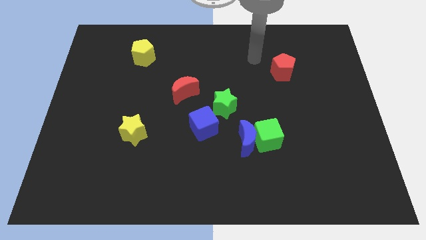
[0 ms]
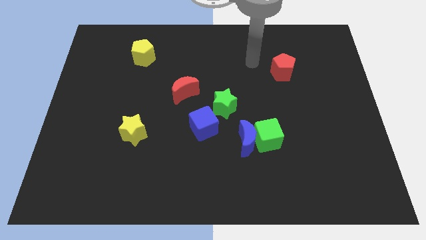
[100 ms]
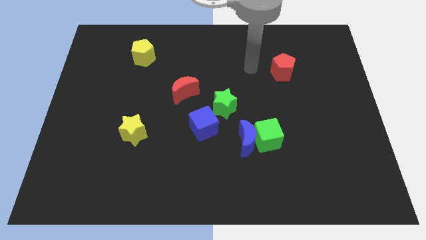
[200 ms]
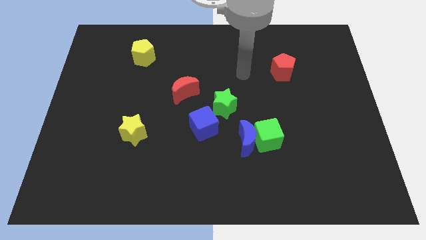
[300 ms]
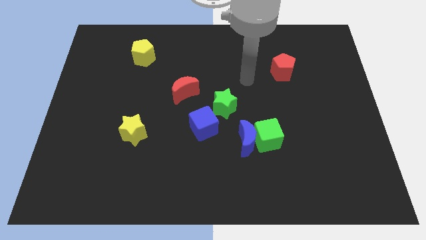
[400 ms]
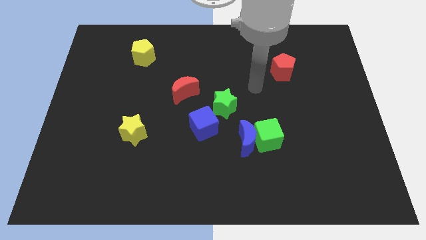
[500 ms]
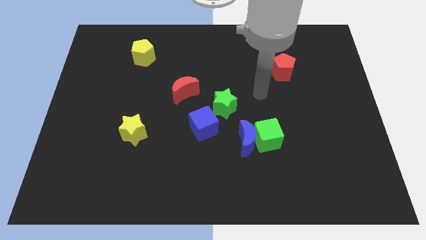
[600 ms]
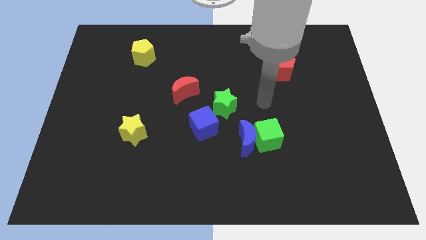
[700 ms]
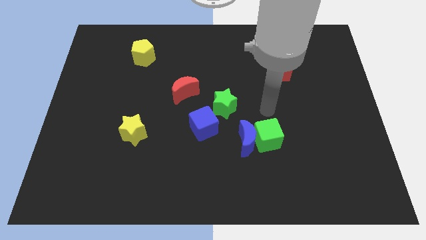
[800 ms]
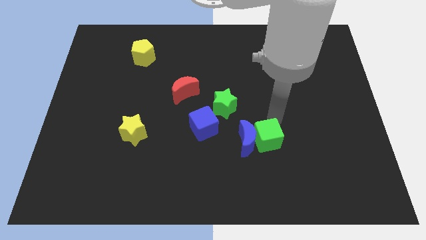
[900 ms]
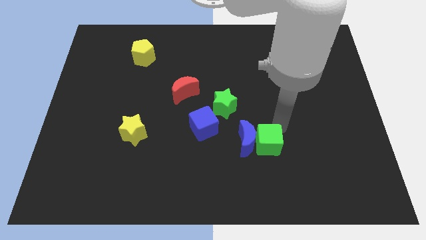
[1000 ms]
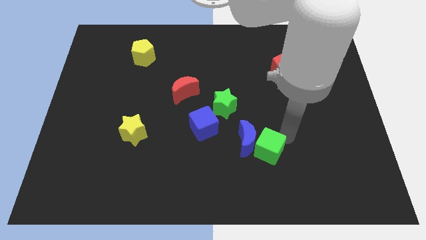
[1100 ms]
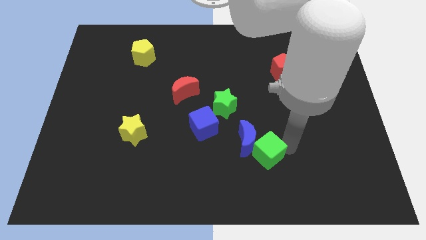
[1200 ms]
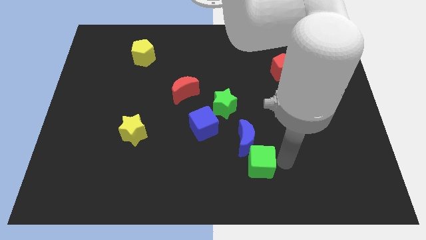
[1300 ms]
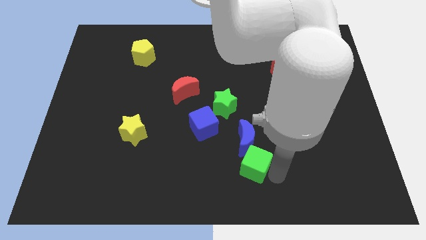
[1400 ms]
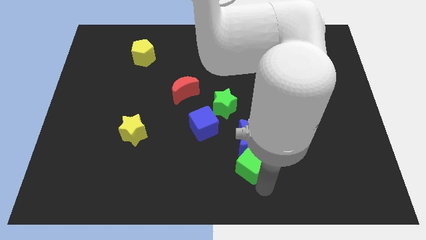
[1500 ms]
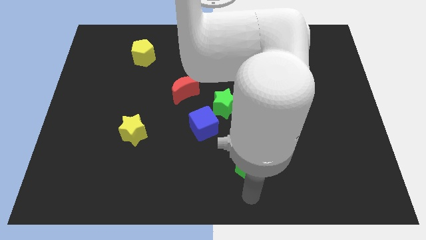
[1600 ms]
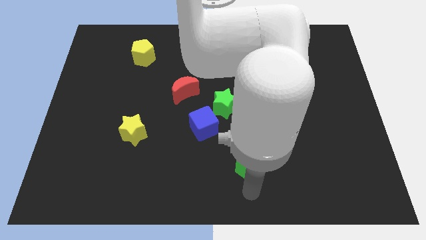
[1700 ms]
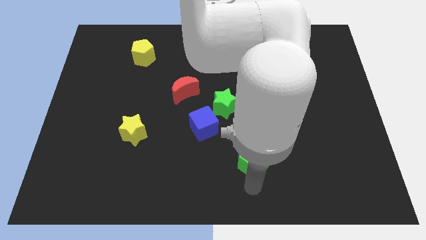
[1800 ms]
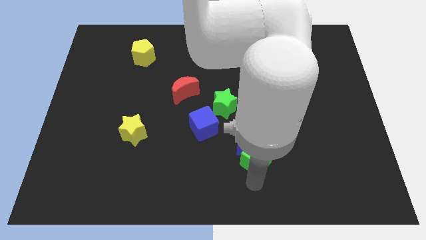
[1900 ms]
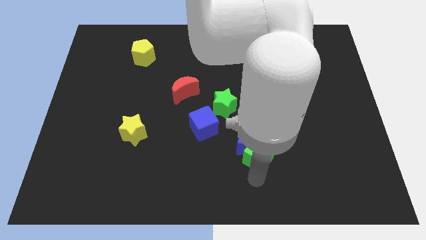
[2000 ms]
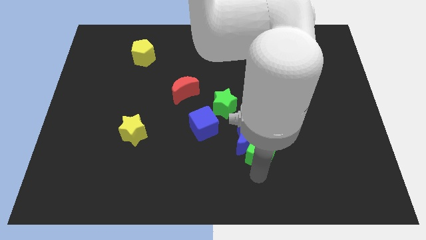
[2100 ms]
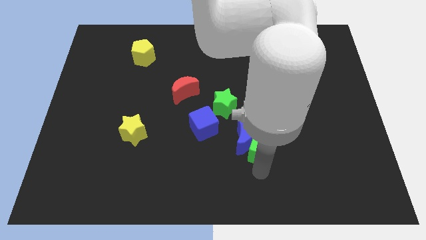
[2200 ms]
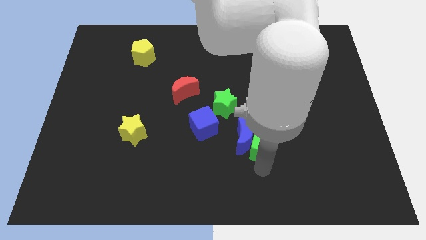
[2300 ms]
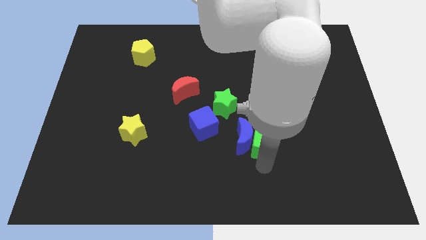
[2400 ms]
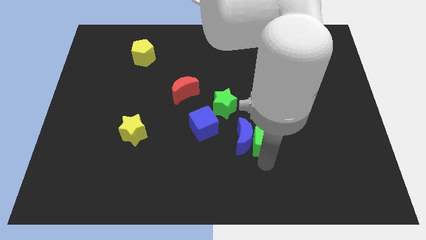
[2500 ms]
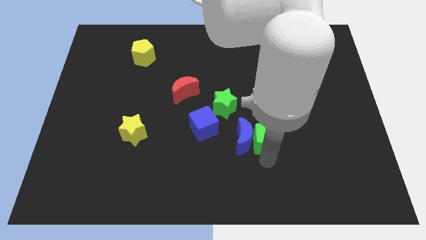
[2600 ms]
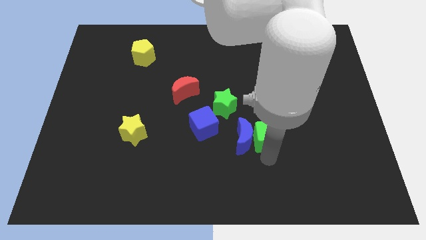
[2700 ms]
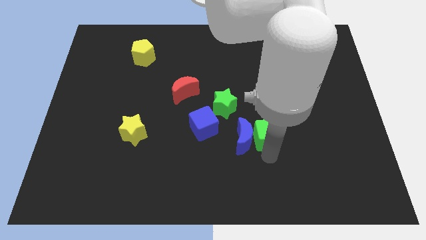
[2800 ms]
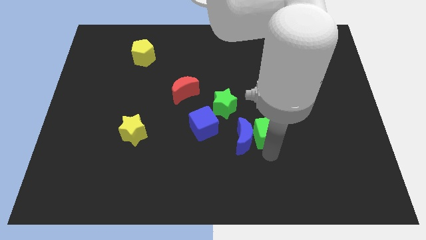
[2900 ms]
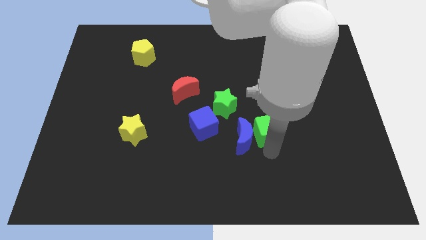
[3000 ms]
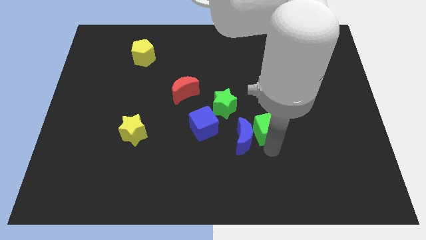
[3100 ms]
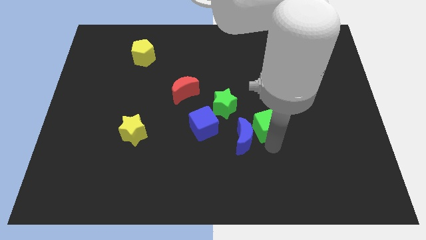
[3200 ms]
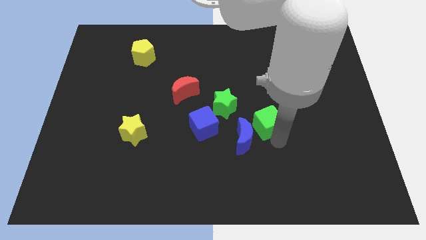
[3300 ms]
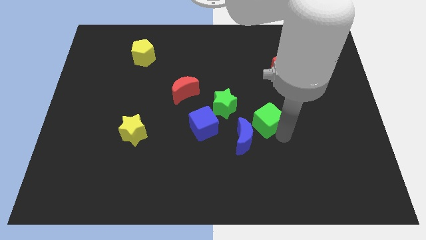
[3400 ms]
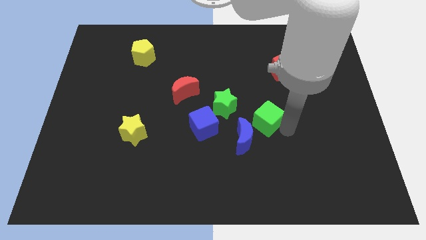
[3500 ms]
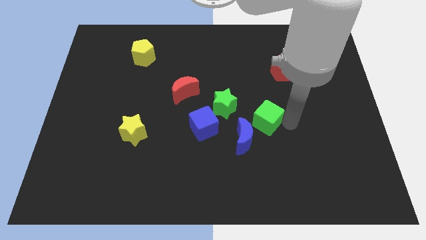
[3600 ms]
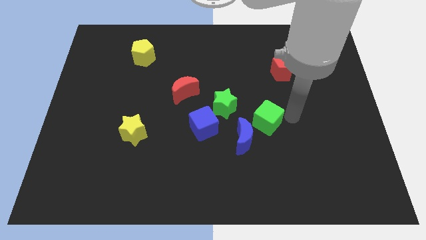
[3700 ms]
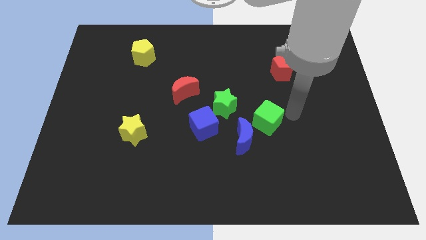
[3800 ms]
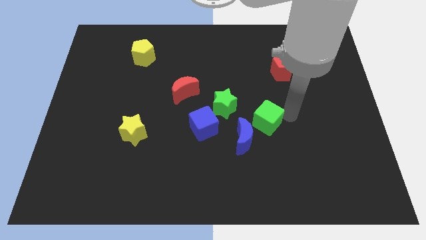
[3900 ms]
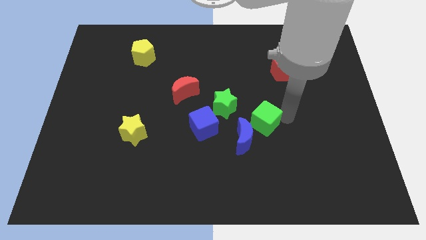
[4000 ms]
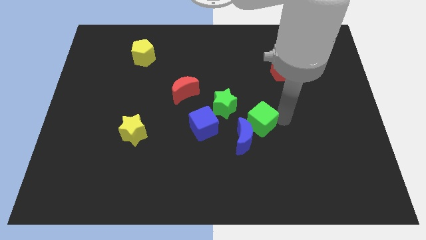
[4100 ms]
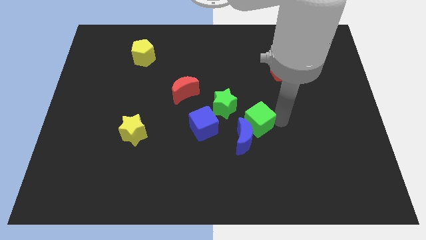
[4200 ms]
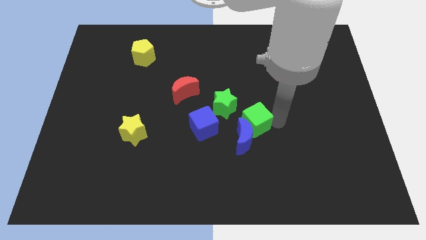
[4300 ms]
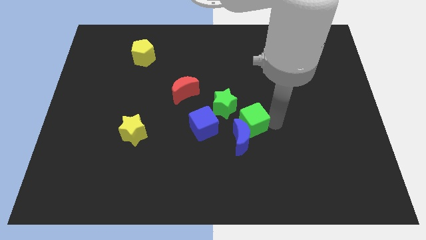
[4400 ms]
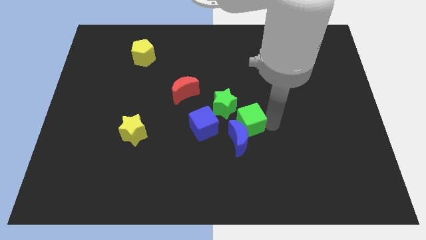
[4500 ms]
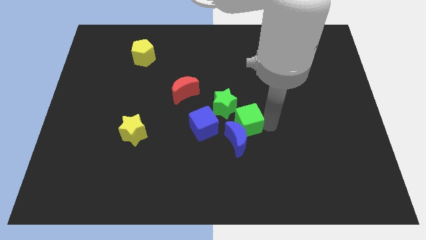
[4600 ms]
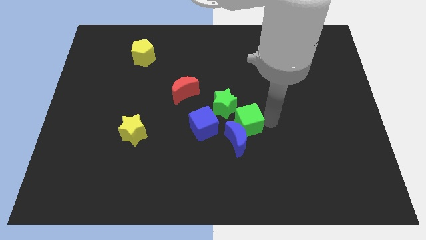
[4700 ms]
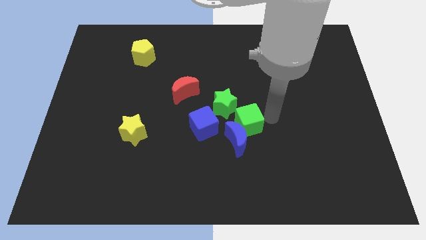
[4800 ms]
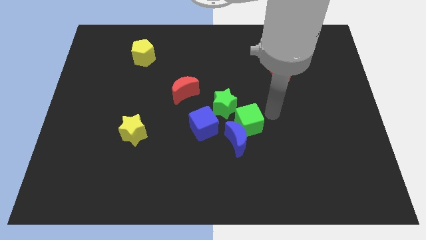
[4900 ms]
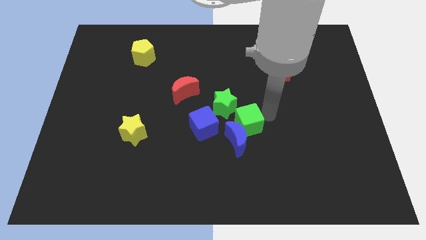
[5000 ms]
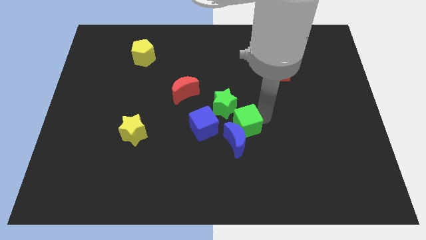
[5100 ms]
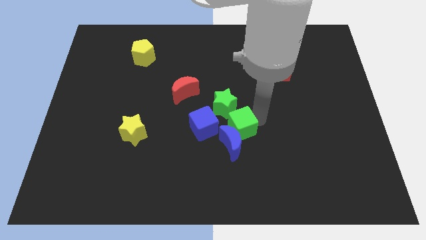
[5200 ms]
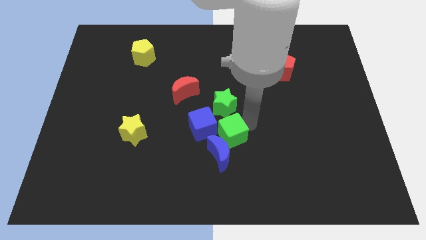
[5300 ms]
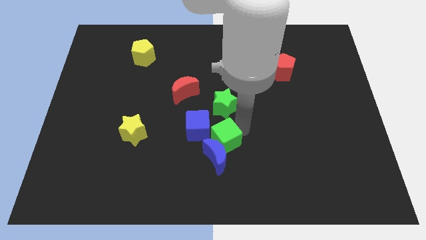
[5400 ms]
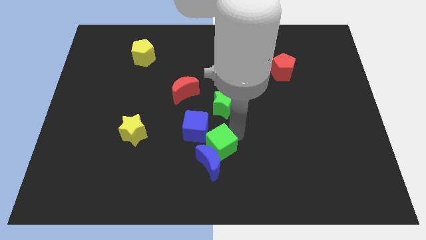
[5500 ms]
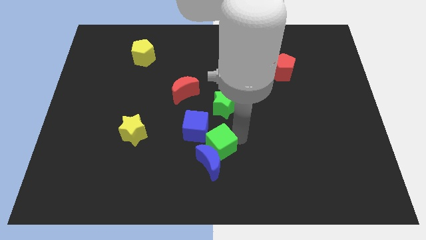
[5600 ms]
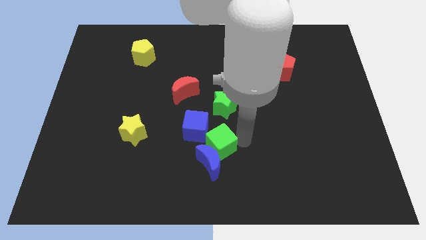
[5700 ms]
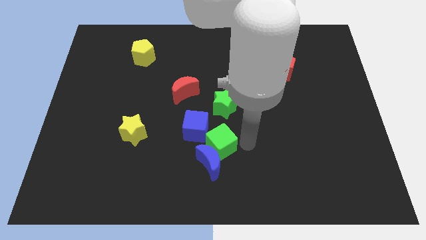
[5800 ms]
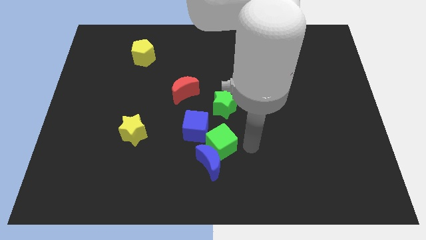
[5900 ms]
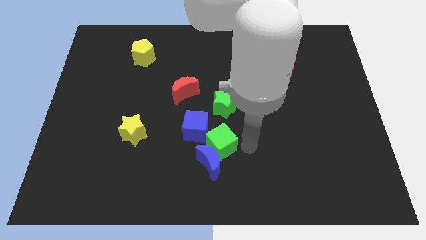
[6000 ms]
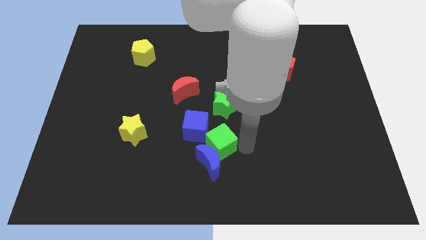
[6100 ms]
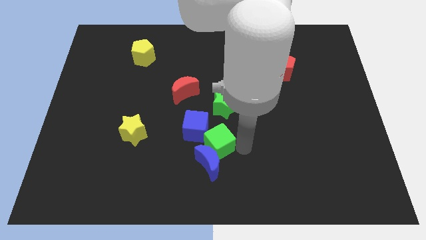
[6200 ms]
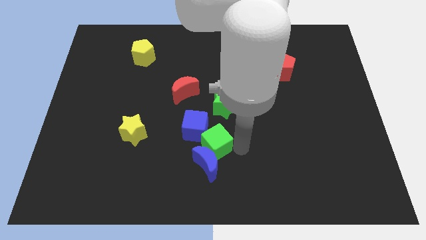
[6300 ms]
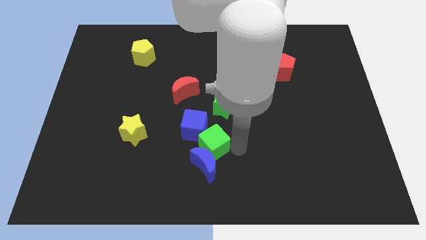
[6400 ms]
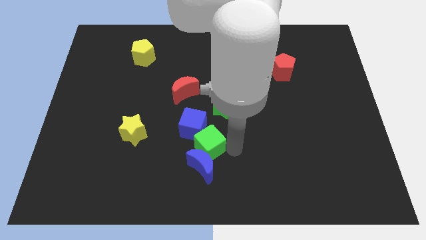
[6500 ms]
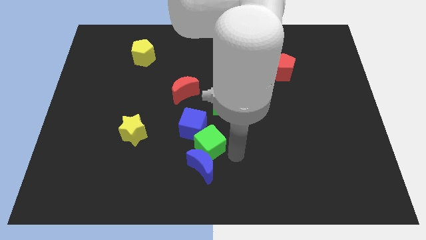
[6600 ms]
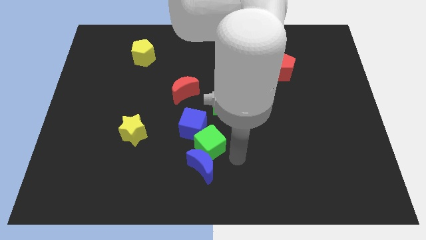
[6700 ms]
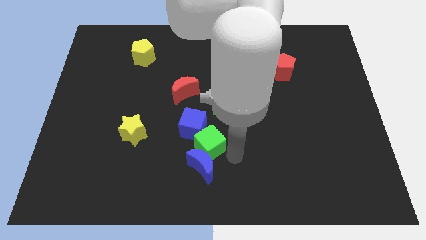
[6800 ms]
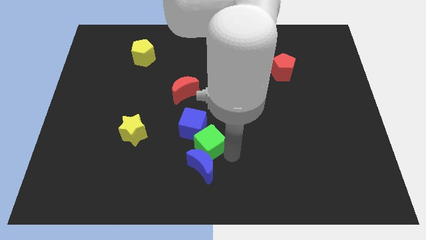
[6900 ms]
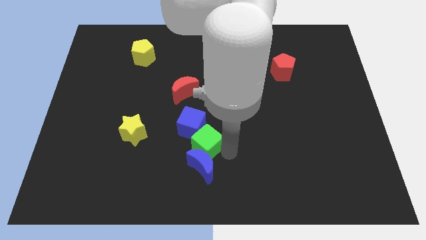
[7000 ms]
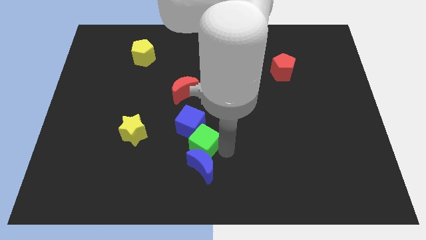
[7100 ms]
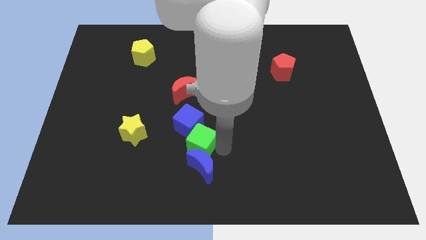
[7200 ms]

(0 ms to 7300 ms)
slide the green cube right of the yellow star

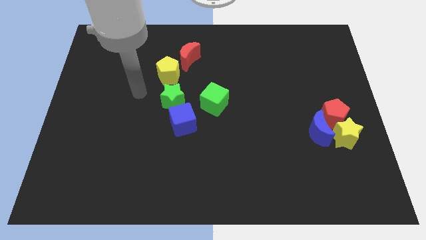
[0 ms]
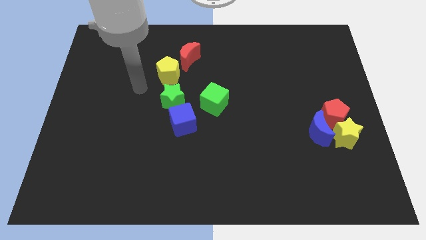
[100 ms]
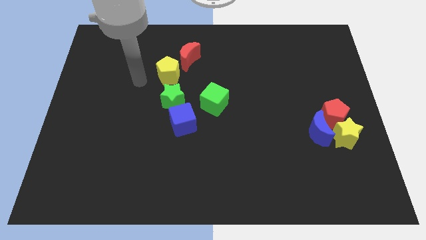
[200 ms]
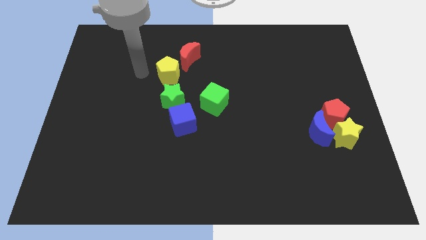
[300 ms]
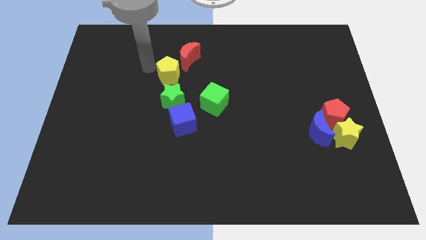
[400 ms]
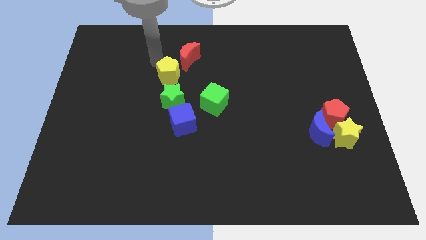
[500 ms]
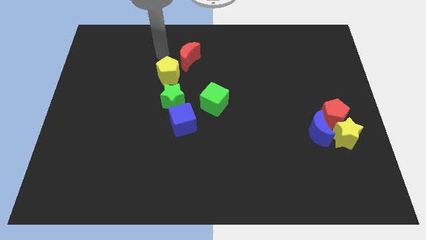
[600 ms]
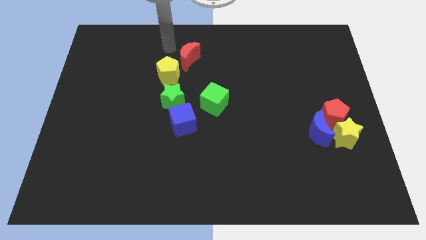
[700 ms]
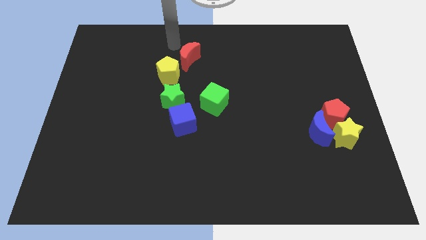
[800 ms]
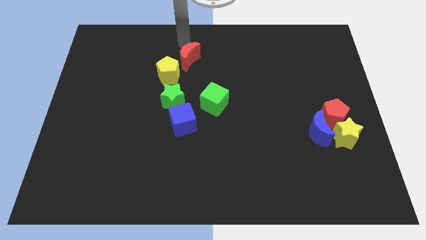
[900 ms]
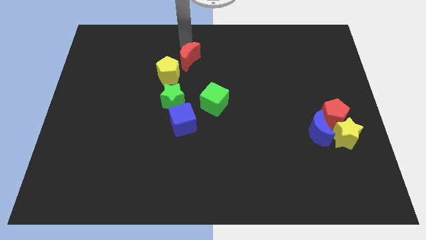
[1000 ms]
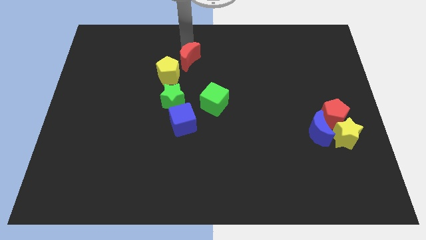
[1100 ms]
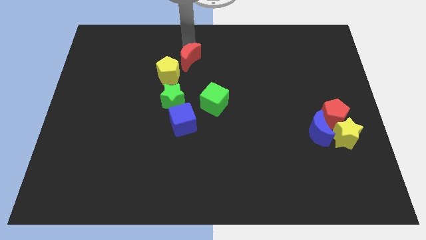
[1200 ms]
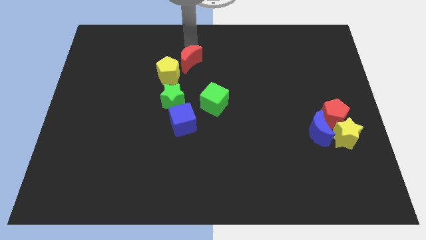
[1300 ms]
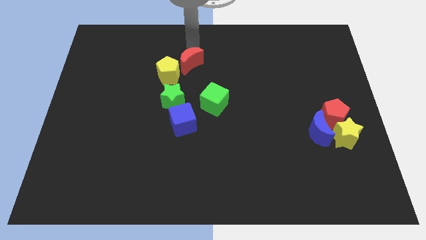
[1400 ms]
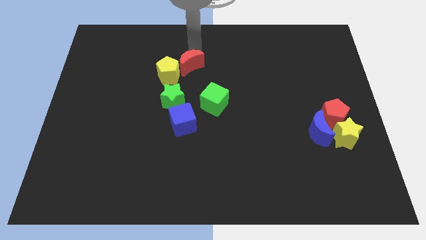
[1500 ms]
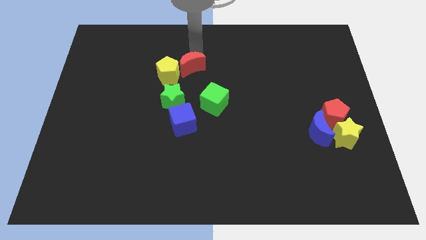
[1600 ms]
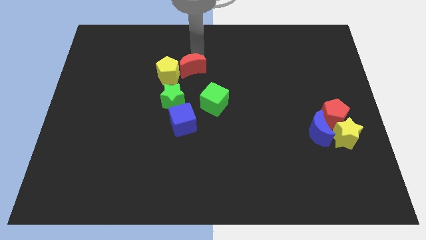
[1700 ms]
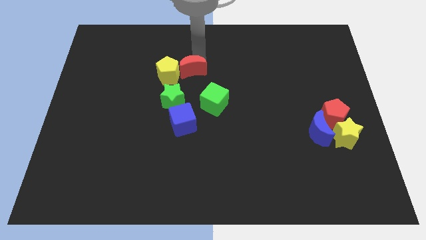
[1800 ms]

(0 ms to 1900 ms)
move the red moon to the top right side of the green star
